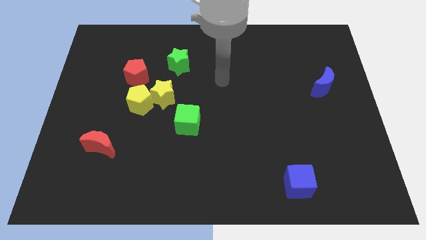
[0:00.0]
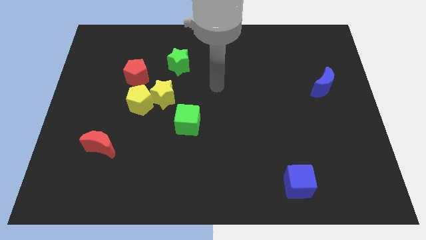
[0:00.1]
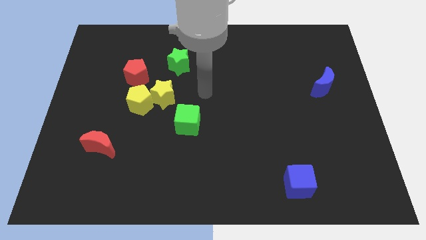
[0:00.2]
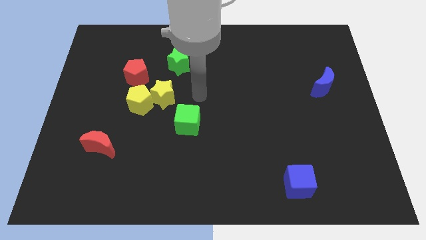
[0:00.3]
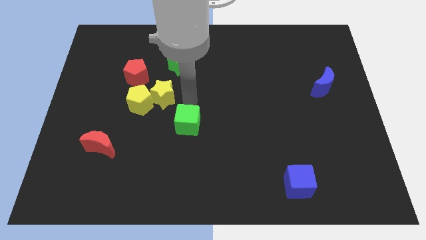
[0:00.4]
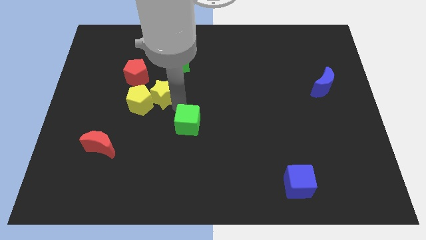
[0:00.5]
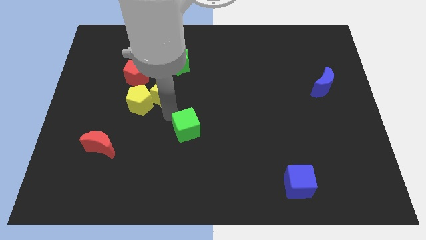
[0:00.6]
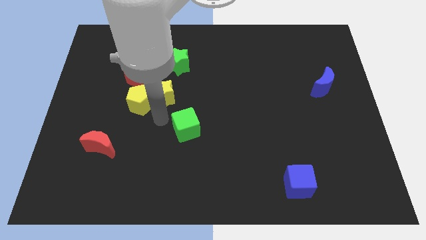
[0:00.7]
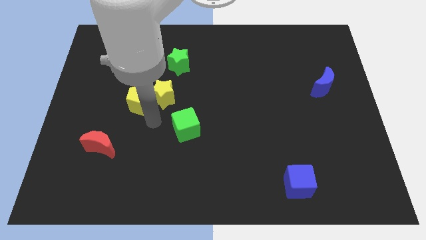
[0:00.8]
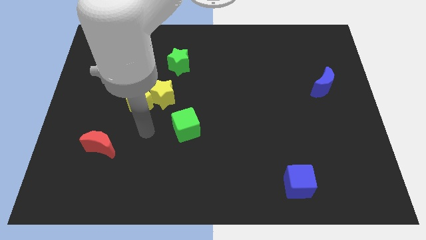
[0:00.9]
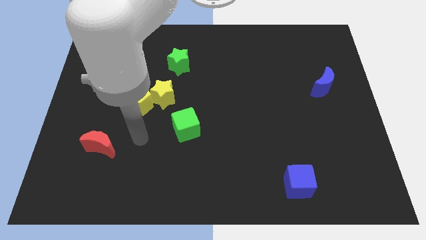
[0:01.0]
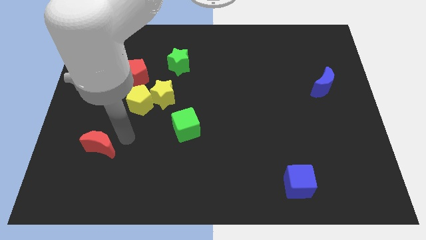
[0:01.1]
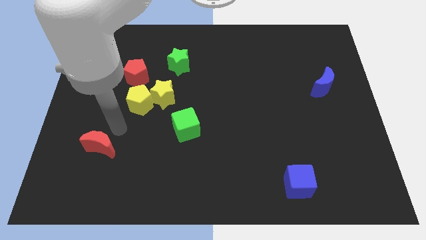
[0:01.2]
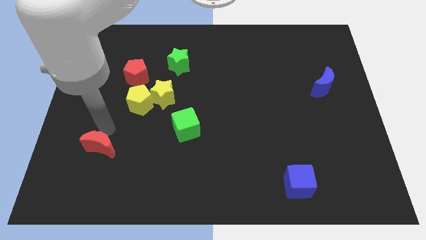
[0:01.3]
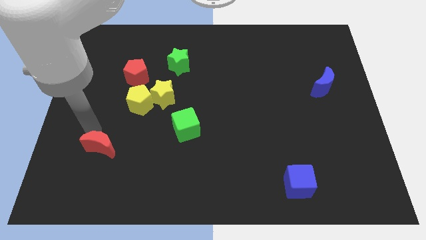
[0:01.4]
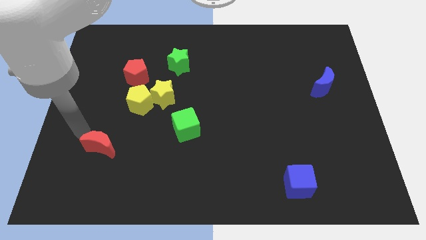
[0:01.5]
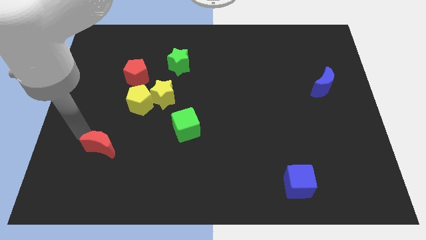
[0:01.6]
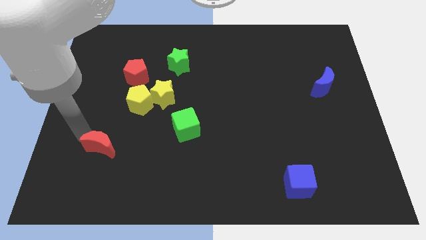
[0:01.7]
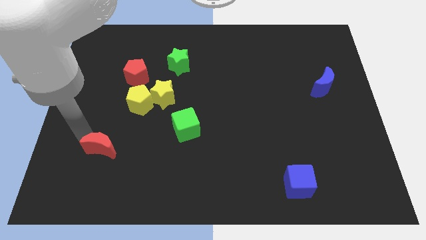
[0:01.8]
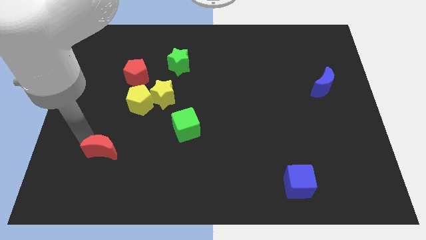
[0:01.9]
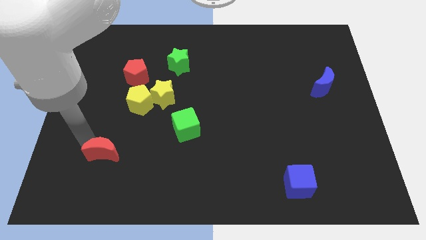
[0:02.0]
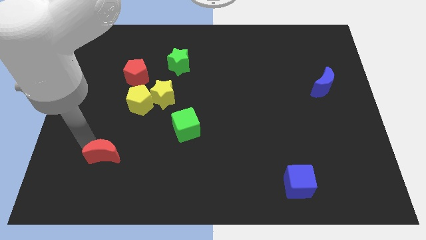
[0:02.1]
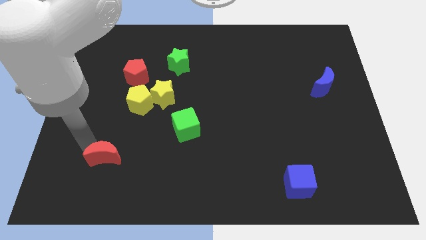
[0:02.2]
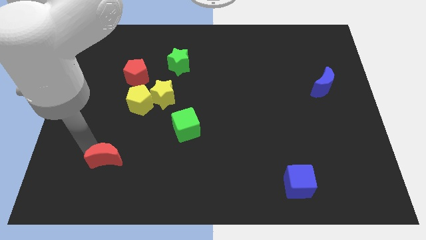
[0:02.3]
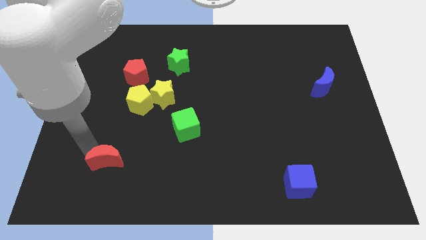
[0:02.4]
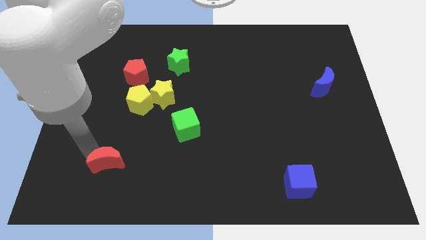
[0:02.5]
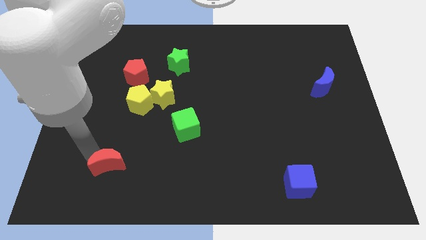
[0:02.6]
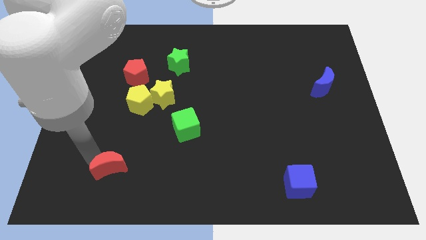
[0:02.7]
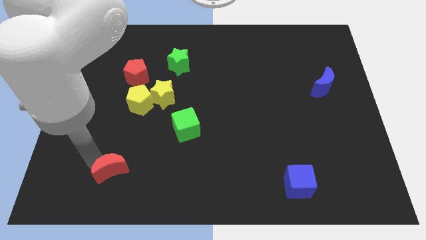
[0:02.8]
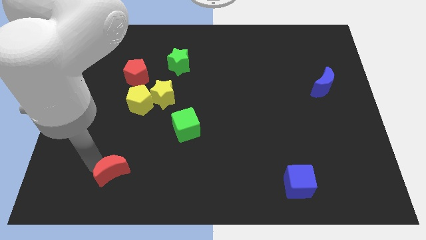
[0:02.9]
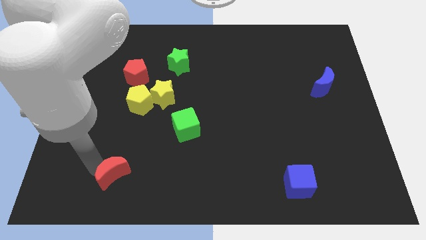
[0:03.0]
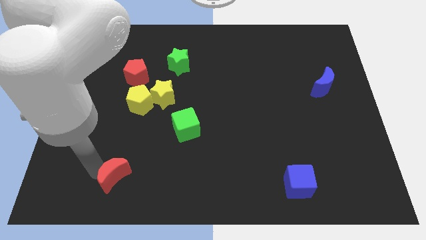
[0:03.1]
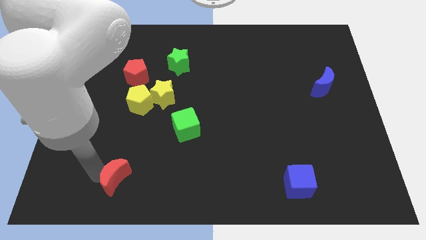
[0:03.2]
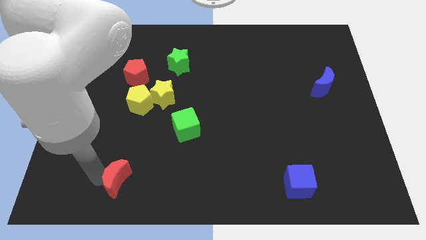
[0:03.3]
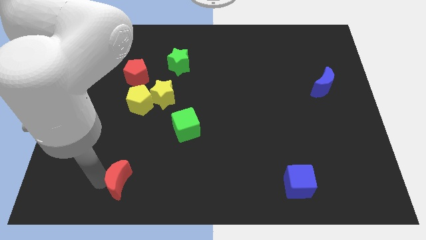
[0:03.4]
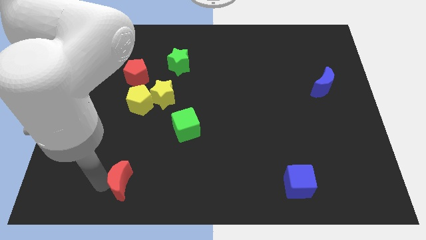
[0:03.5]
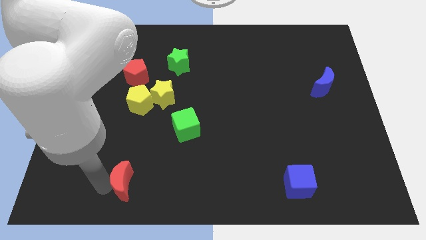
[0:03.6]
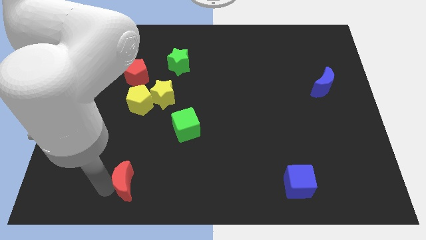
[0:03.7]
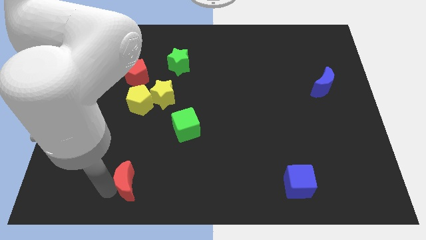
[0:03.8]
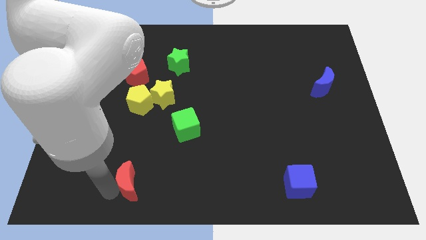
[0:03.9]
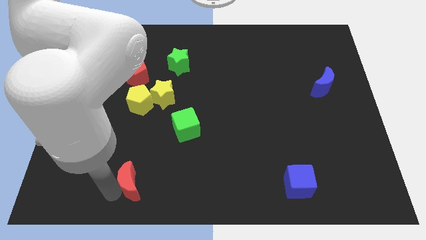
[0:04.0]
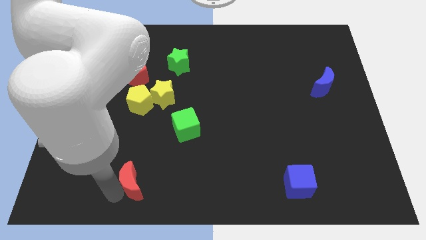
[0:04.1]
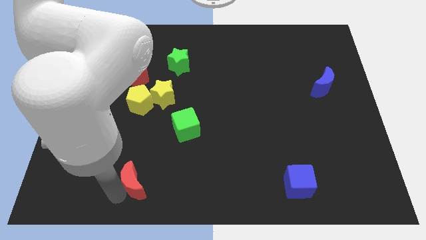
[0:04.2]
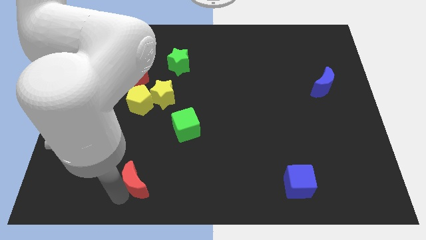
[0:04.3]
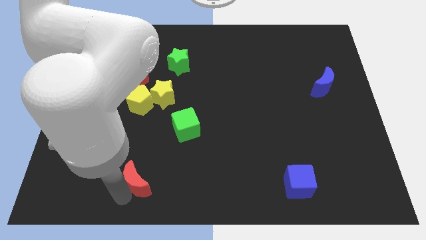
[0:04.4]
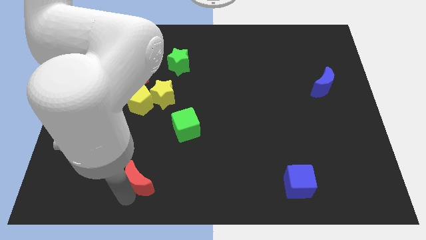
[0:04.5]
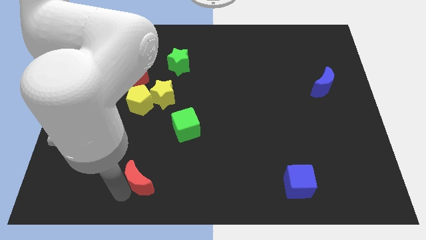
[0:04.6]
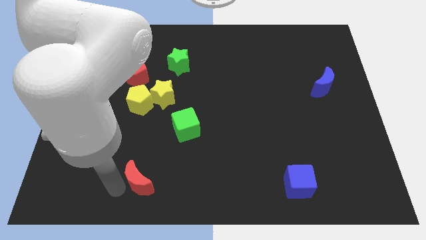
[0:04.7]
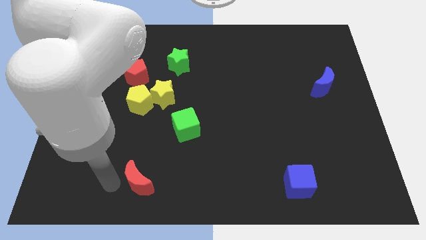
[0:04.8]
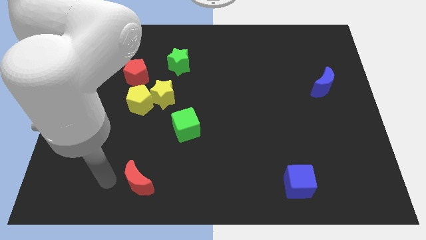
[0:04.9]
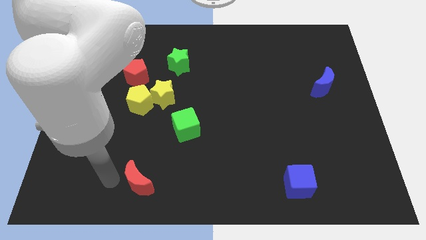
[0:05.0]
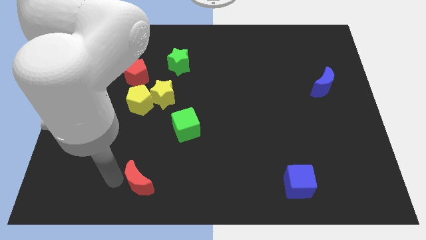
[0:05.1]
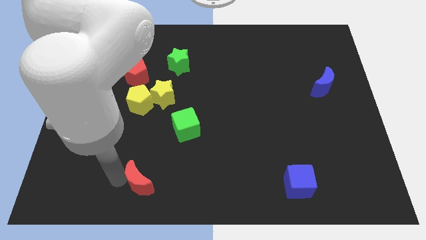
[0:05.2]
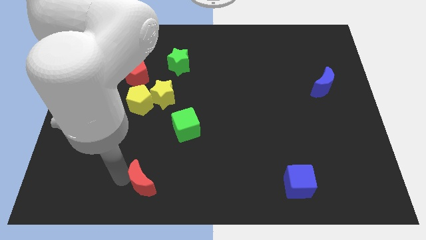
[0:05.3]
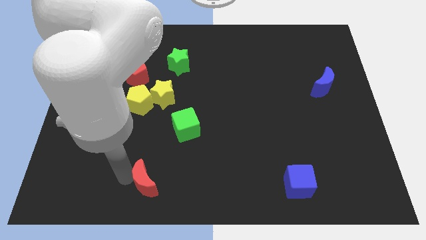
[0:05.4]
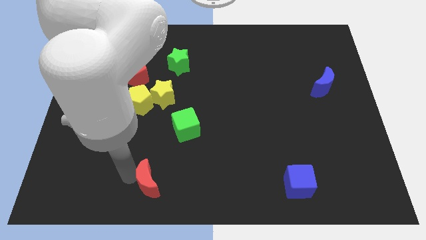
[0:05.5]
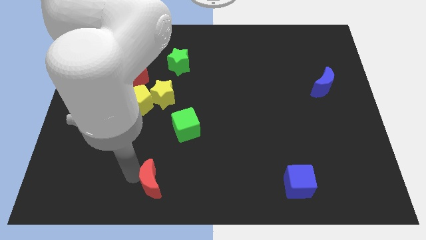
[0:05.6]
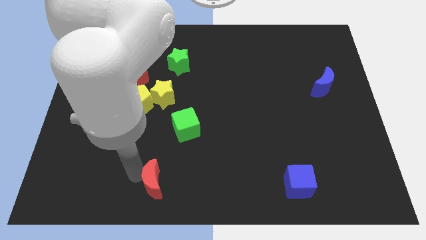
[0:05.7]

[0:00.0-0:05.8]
slide the red moon to the bottom
